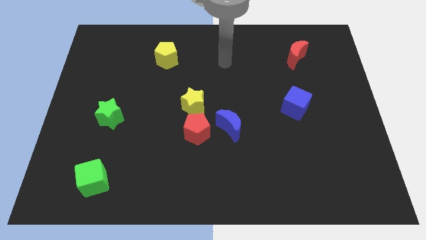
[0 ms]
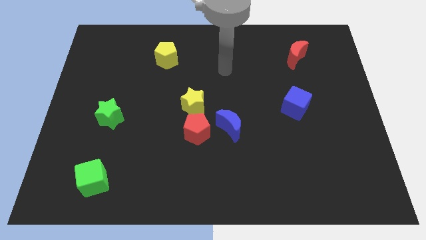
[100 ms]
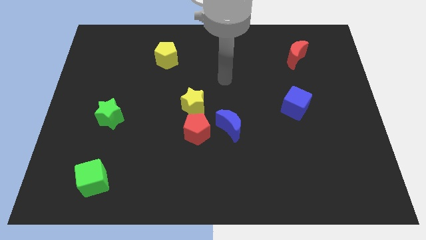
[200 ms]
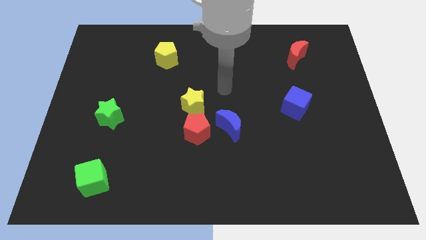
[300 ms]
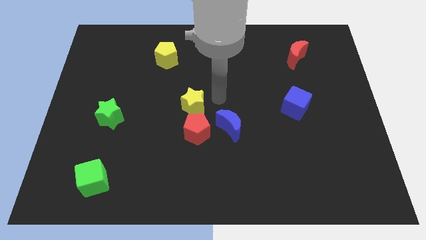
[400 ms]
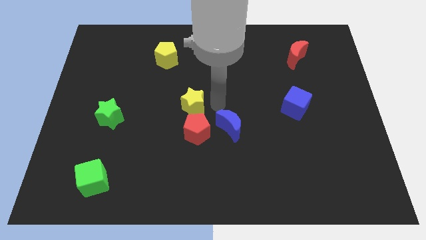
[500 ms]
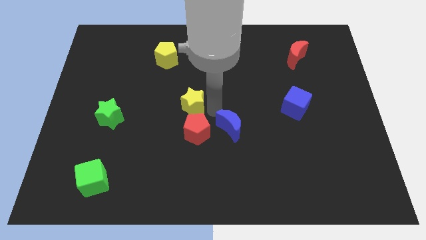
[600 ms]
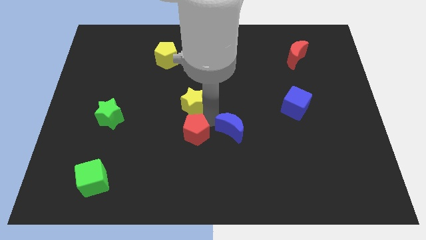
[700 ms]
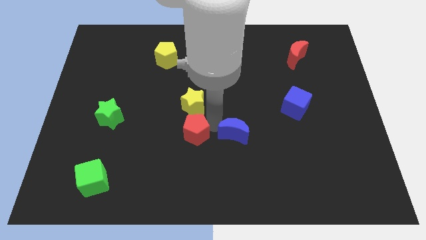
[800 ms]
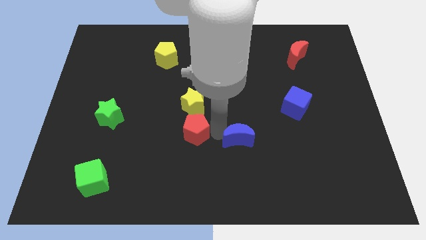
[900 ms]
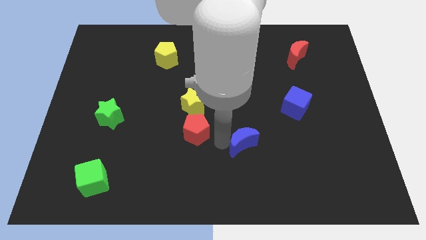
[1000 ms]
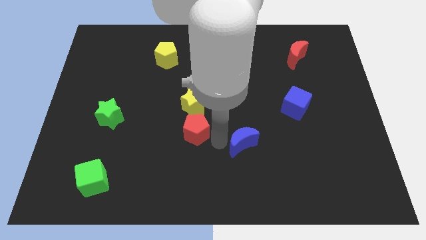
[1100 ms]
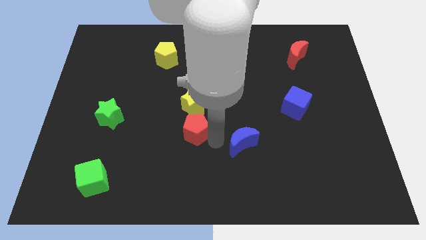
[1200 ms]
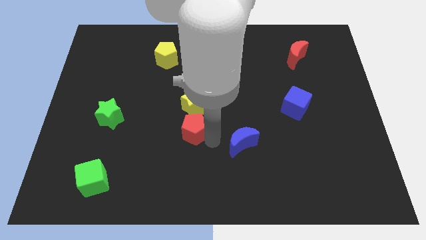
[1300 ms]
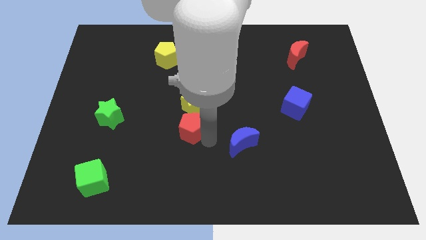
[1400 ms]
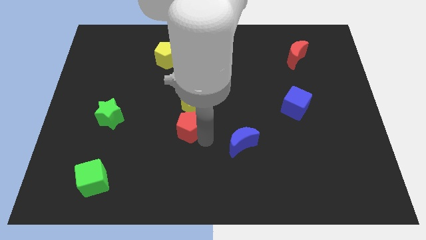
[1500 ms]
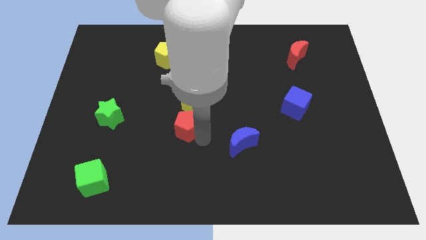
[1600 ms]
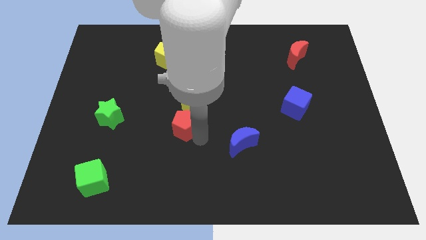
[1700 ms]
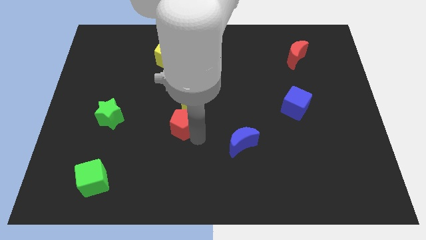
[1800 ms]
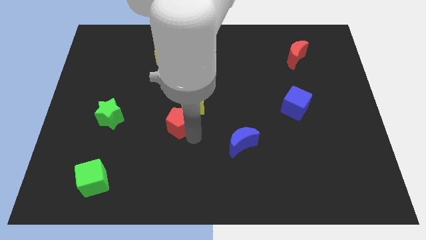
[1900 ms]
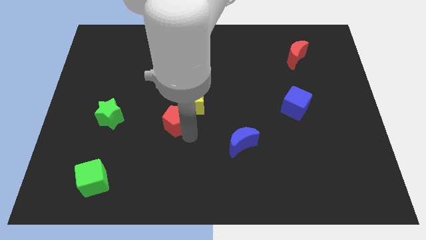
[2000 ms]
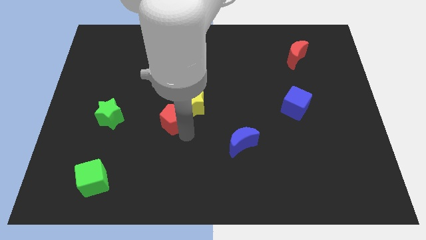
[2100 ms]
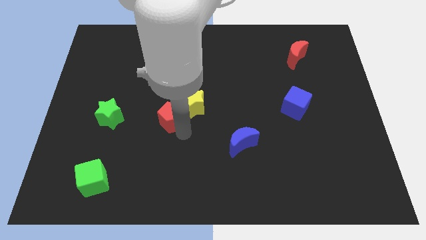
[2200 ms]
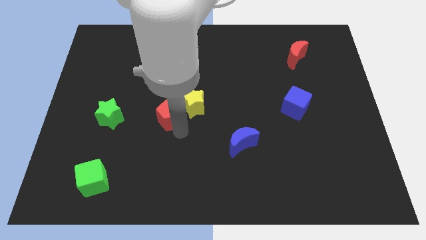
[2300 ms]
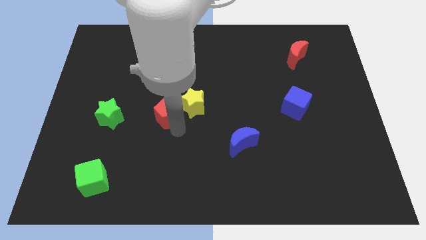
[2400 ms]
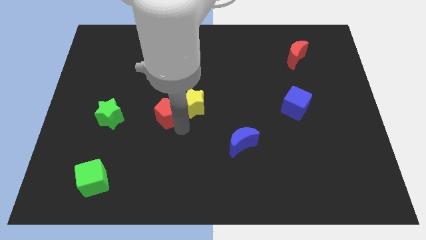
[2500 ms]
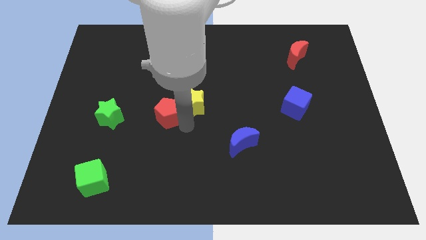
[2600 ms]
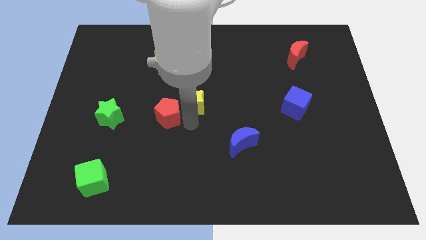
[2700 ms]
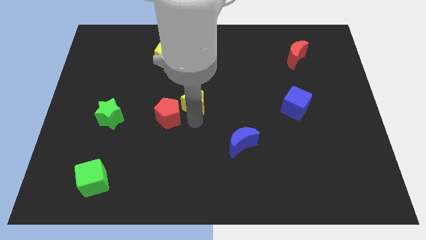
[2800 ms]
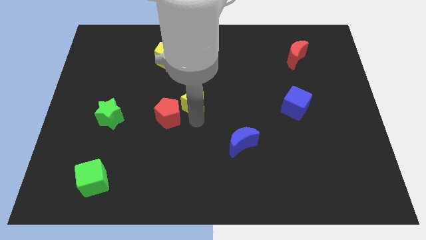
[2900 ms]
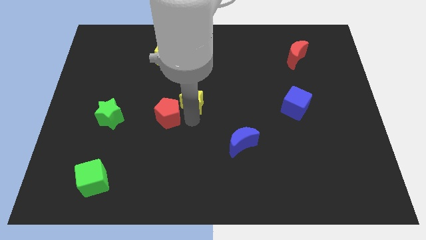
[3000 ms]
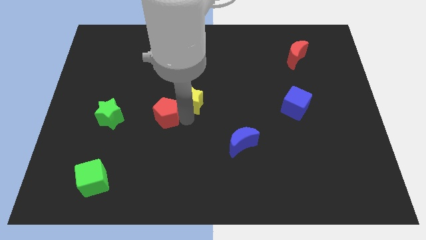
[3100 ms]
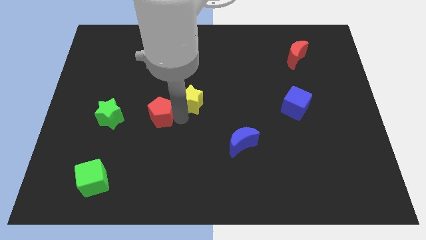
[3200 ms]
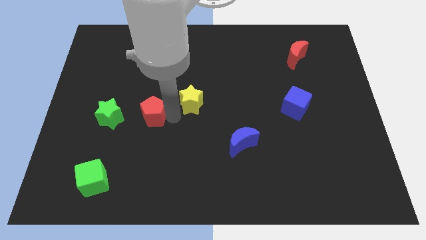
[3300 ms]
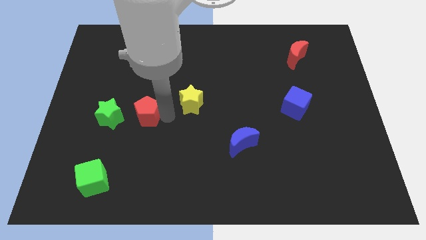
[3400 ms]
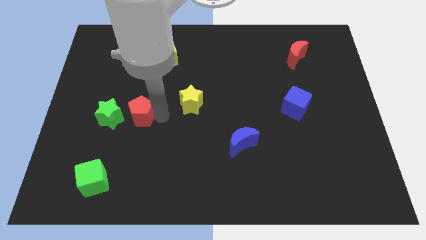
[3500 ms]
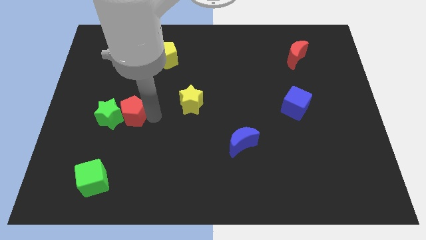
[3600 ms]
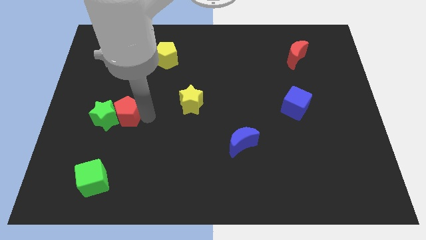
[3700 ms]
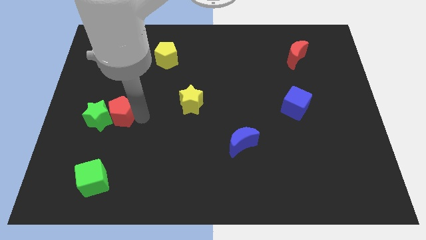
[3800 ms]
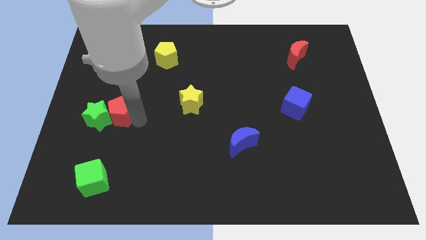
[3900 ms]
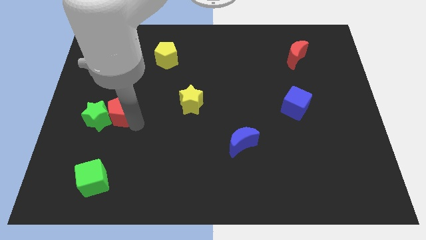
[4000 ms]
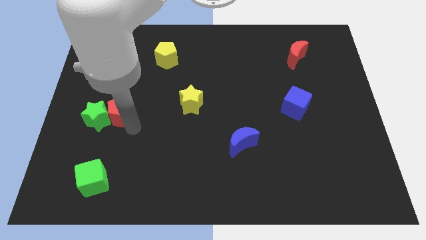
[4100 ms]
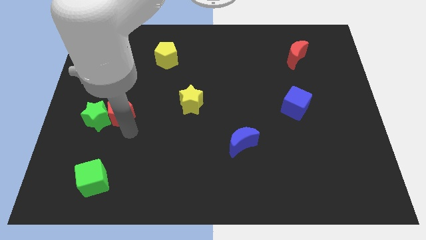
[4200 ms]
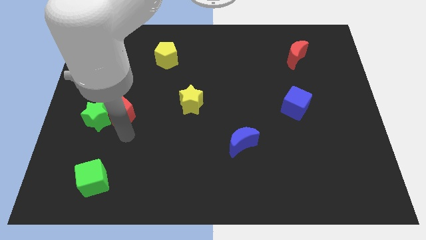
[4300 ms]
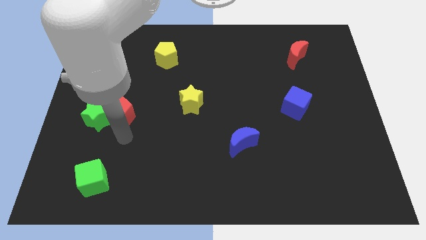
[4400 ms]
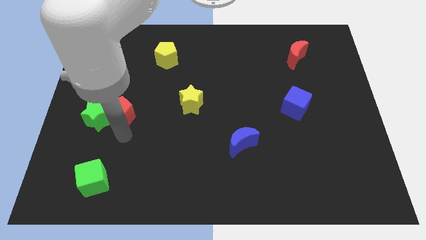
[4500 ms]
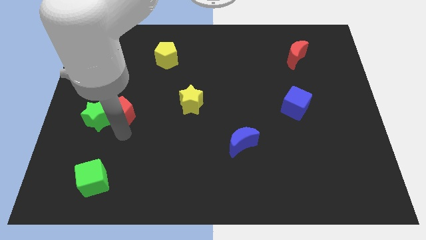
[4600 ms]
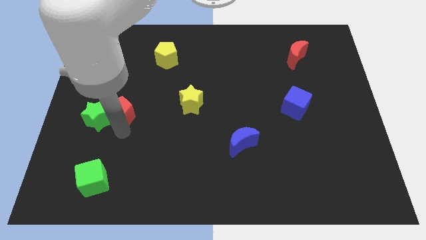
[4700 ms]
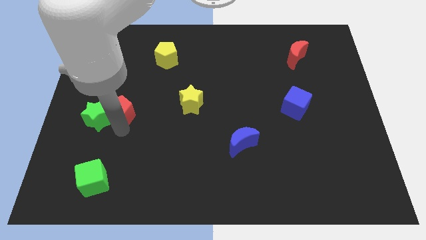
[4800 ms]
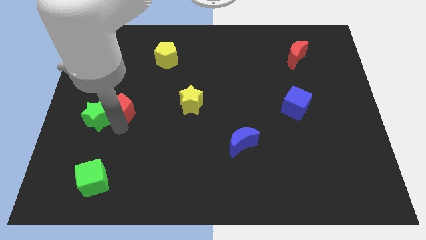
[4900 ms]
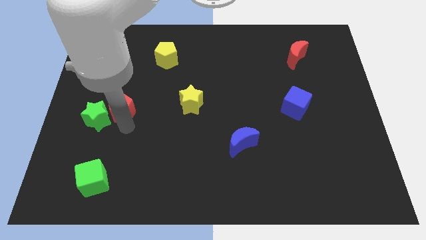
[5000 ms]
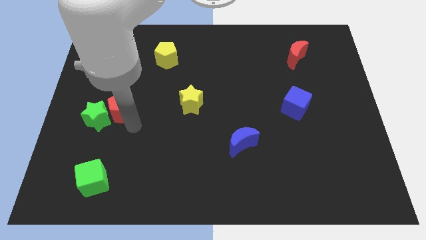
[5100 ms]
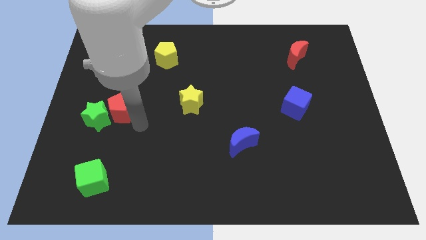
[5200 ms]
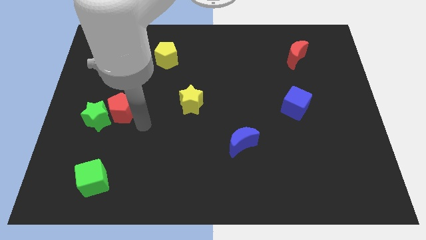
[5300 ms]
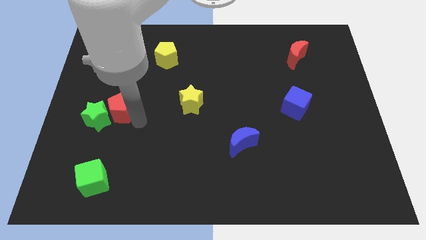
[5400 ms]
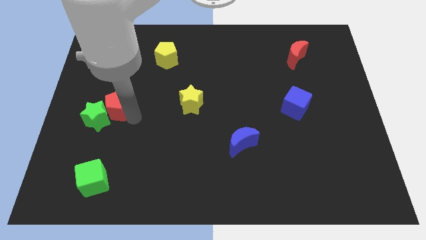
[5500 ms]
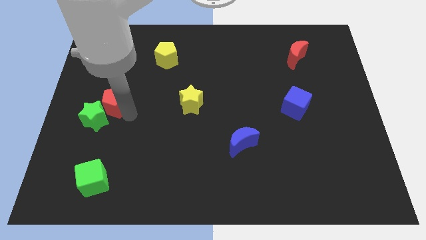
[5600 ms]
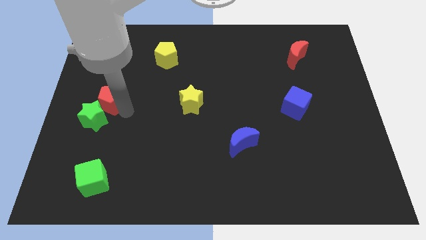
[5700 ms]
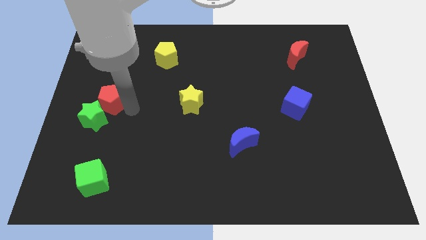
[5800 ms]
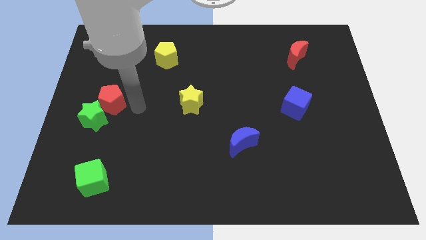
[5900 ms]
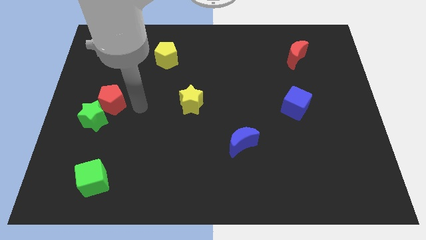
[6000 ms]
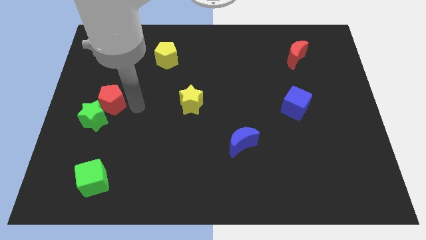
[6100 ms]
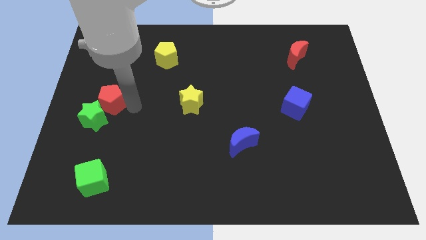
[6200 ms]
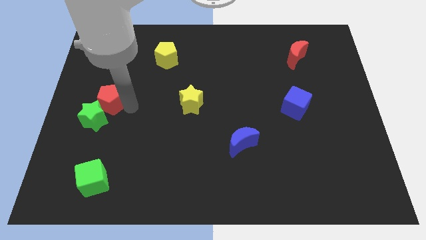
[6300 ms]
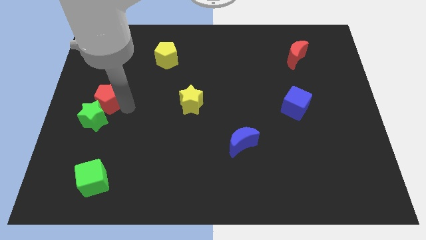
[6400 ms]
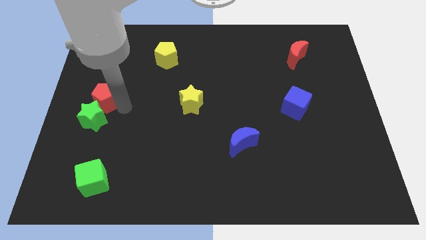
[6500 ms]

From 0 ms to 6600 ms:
put the red pentagon to the left side of the board
